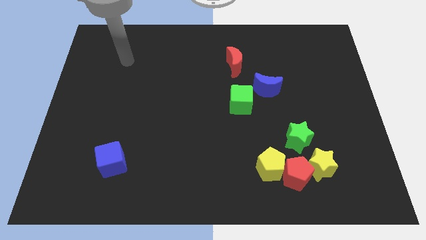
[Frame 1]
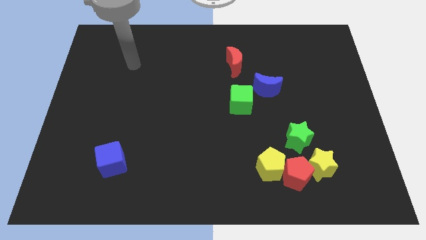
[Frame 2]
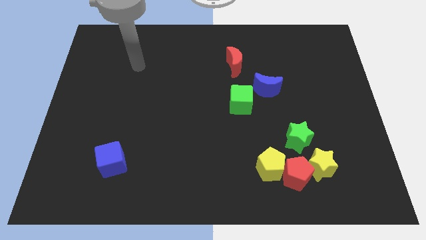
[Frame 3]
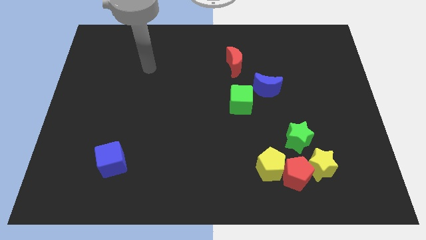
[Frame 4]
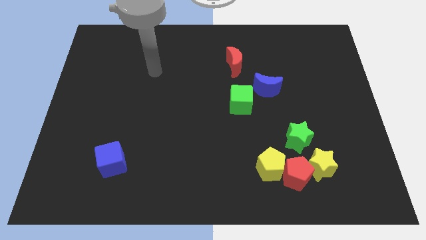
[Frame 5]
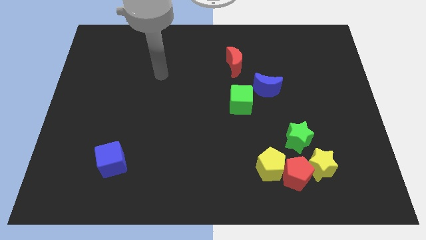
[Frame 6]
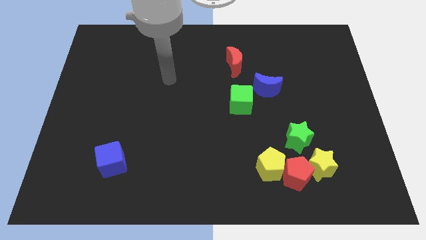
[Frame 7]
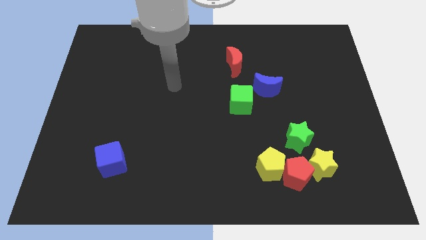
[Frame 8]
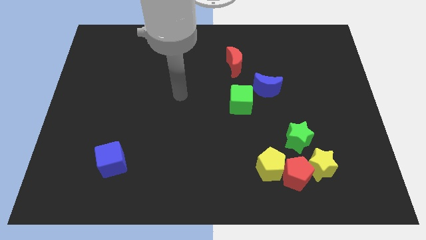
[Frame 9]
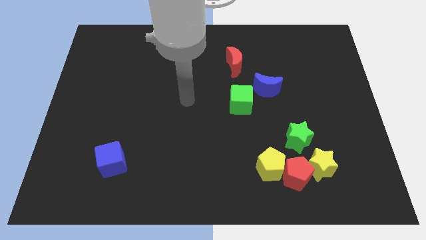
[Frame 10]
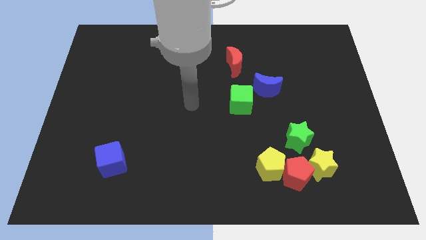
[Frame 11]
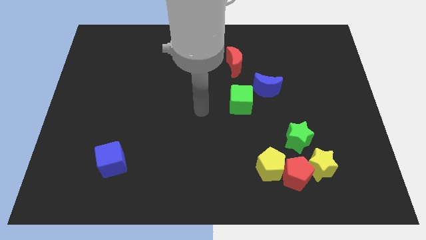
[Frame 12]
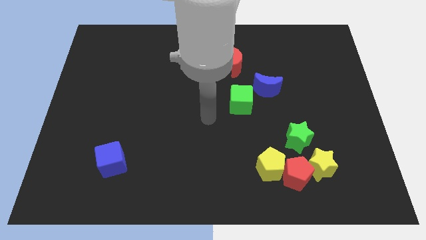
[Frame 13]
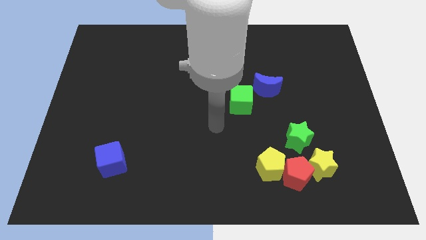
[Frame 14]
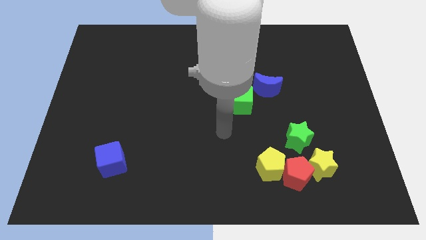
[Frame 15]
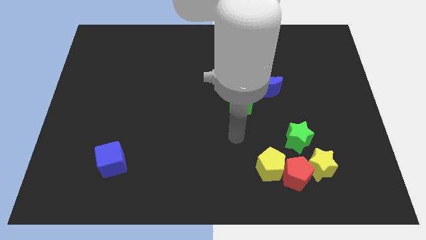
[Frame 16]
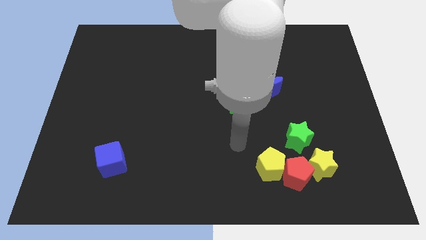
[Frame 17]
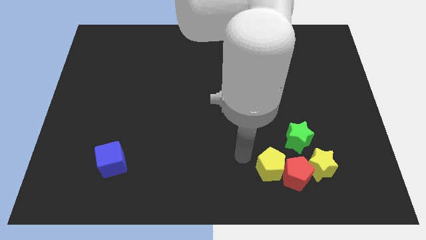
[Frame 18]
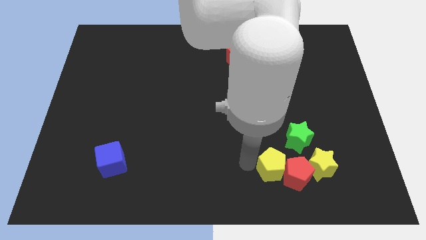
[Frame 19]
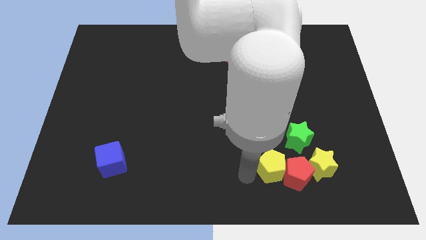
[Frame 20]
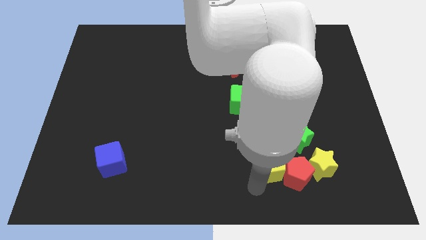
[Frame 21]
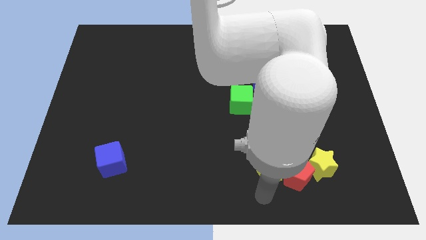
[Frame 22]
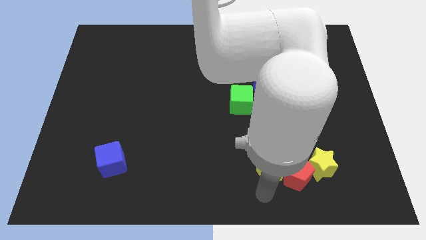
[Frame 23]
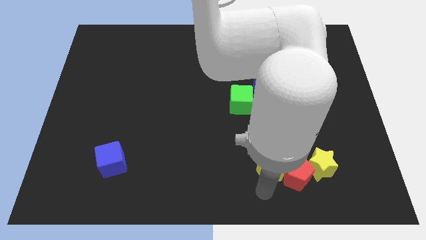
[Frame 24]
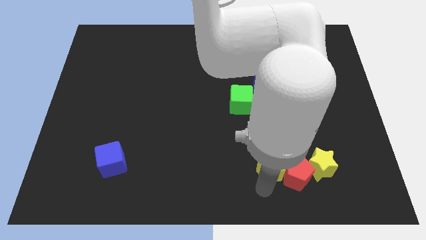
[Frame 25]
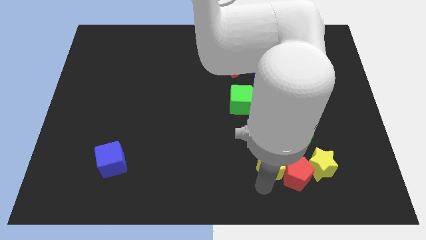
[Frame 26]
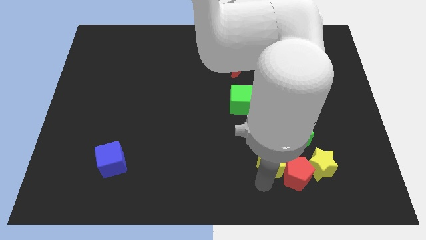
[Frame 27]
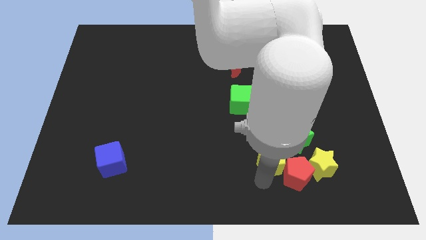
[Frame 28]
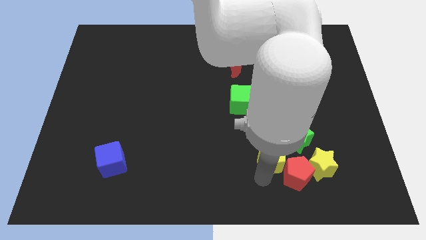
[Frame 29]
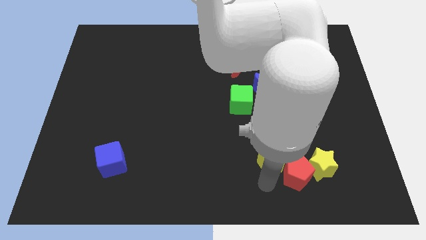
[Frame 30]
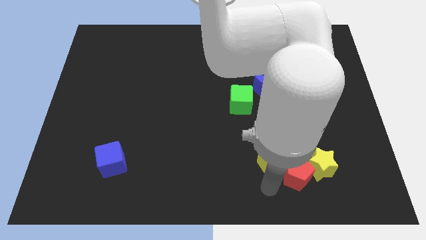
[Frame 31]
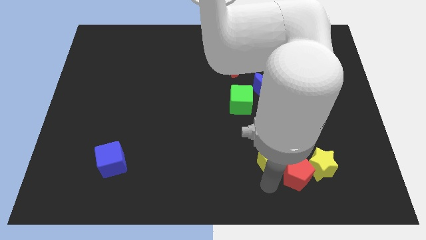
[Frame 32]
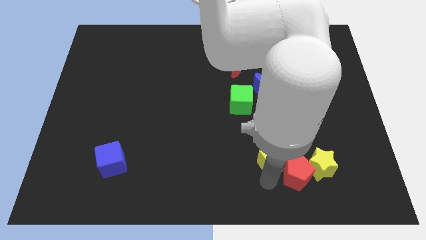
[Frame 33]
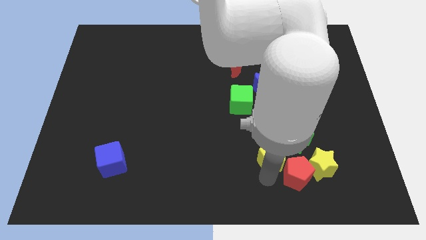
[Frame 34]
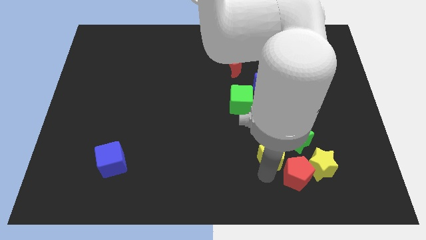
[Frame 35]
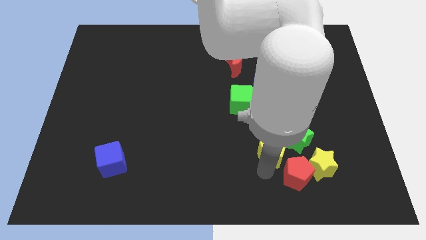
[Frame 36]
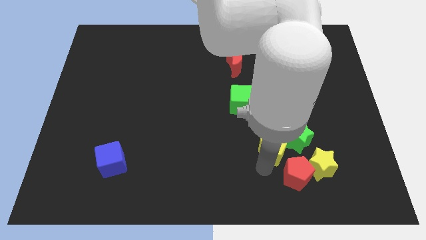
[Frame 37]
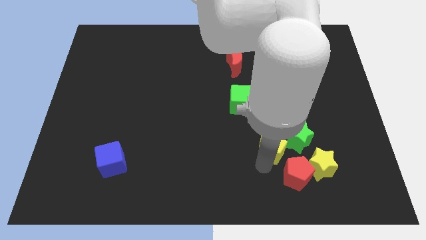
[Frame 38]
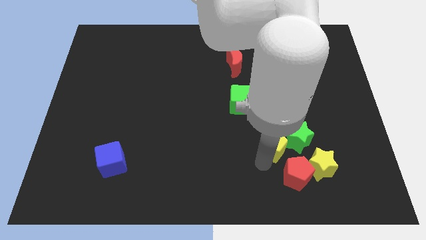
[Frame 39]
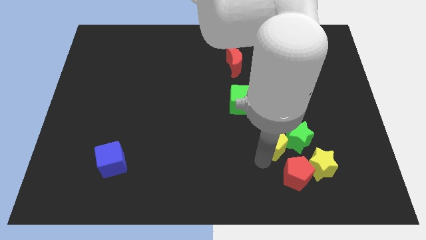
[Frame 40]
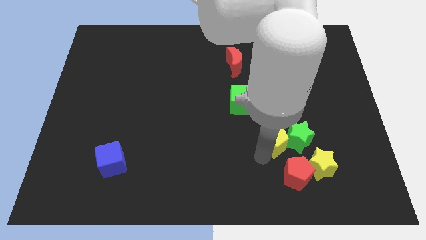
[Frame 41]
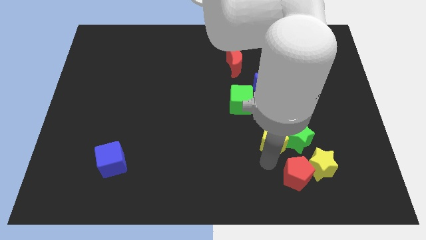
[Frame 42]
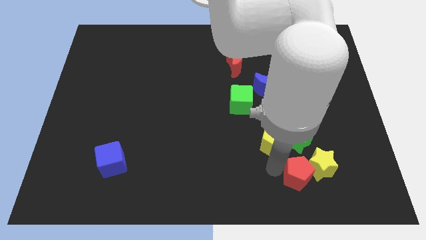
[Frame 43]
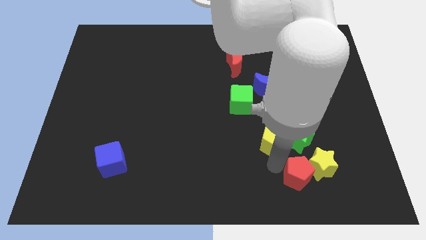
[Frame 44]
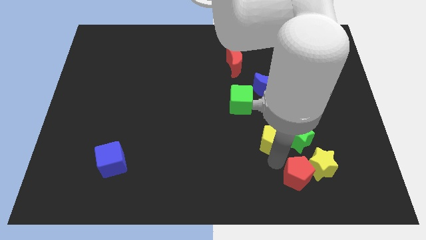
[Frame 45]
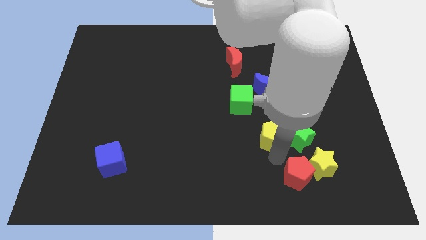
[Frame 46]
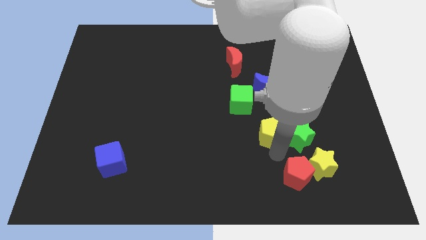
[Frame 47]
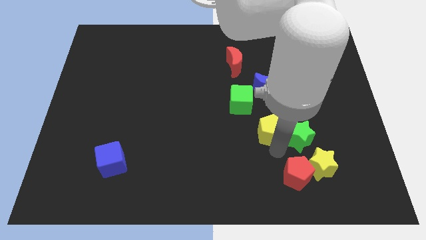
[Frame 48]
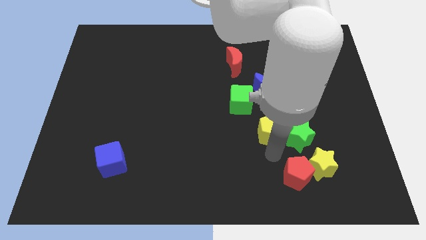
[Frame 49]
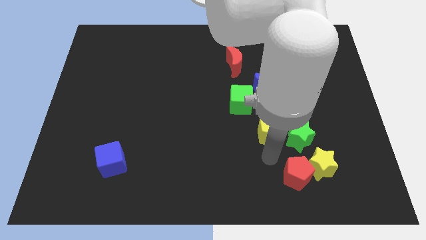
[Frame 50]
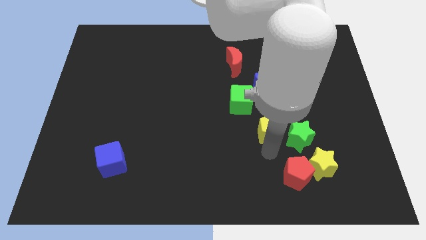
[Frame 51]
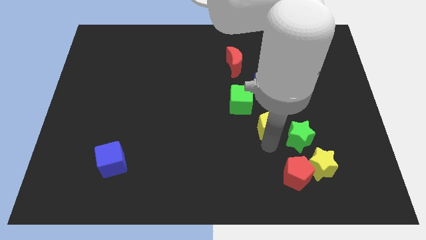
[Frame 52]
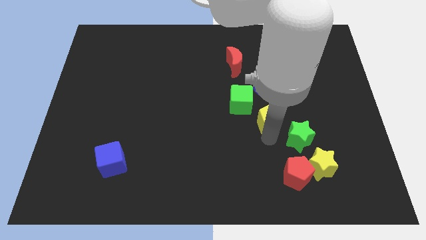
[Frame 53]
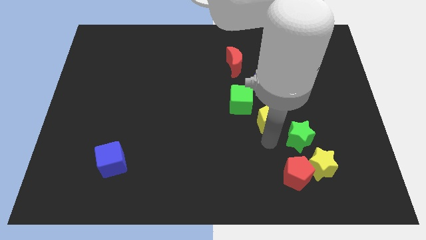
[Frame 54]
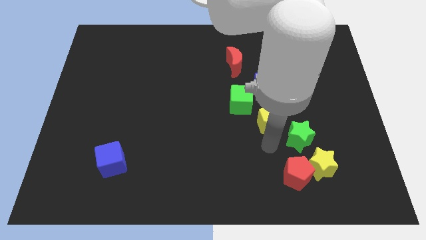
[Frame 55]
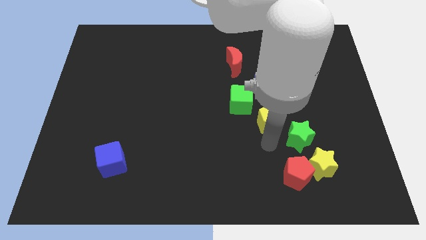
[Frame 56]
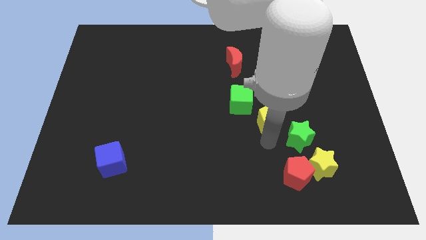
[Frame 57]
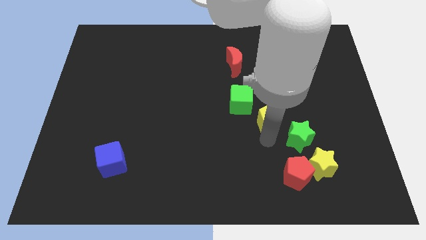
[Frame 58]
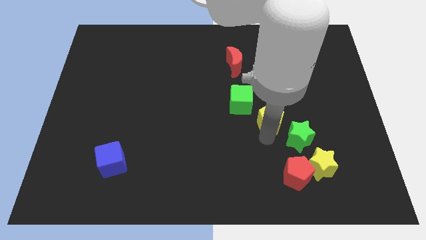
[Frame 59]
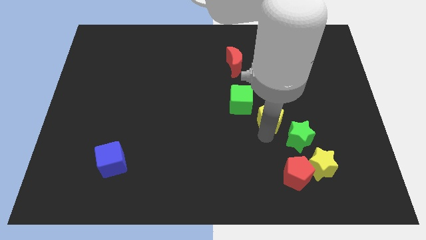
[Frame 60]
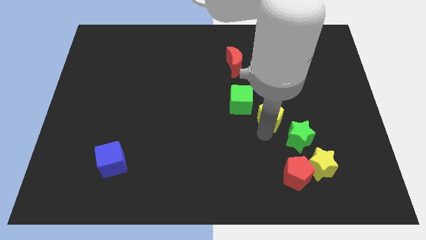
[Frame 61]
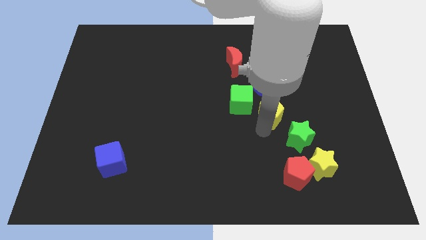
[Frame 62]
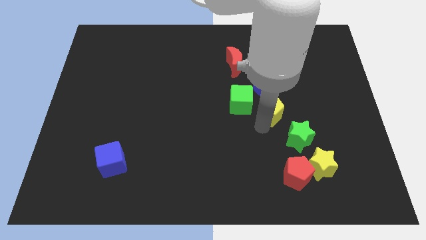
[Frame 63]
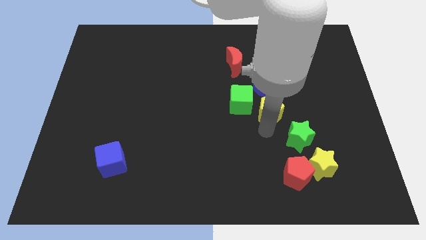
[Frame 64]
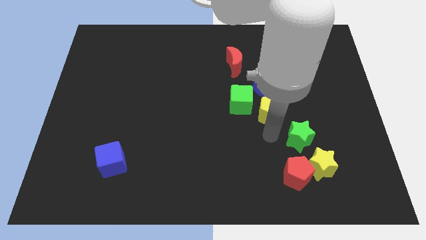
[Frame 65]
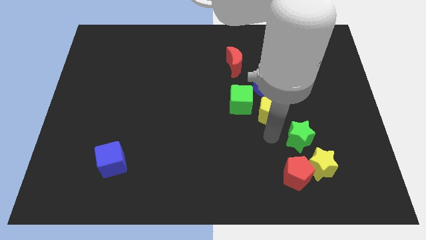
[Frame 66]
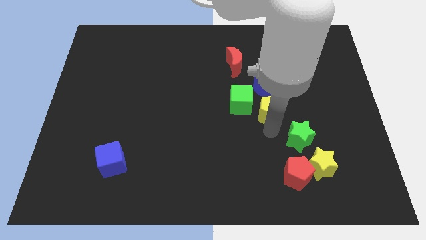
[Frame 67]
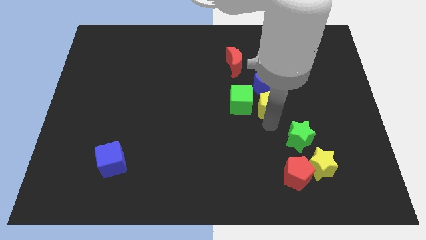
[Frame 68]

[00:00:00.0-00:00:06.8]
put the yellow pentagon next to the blue moon

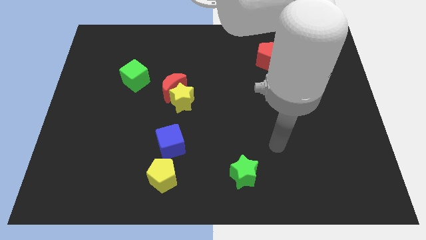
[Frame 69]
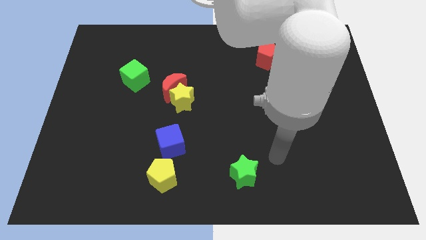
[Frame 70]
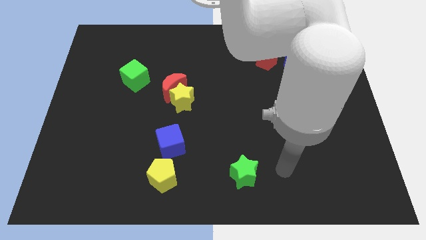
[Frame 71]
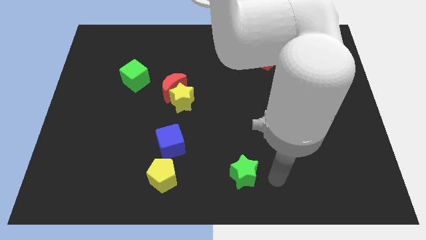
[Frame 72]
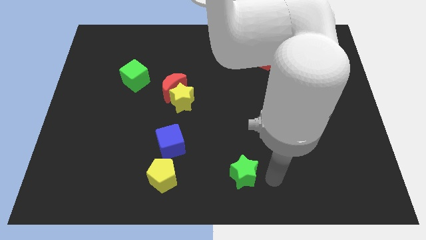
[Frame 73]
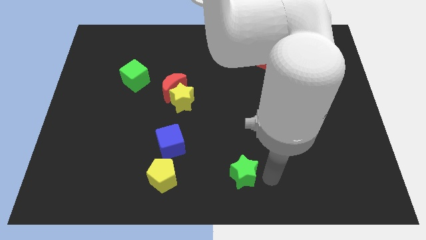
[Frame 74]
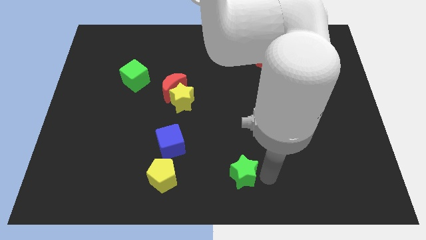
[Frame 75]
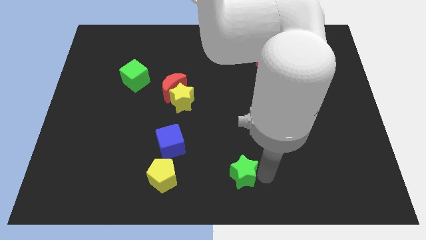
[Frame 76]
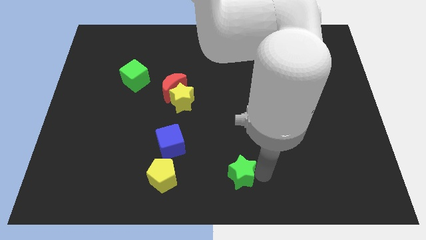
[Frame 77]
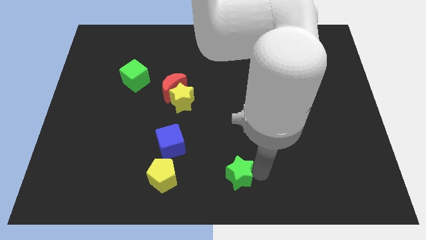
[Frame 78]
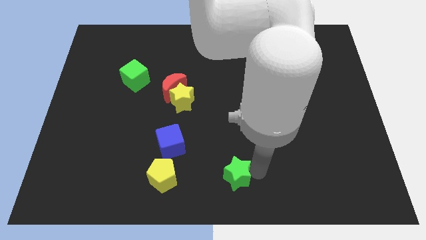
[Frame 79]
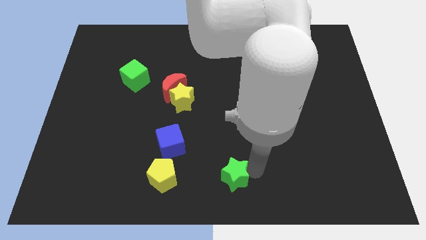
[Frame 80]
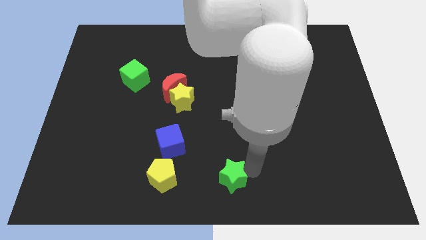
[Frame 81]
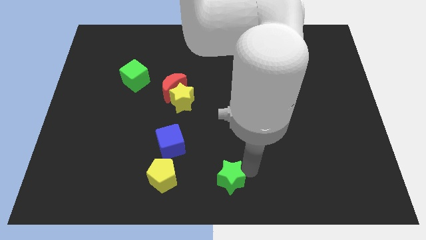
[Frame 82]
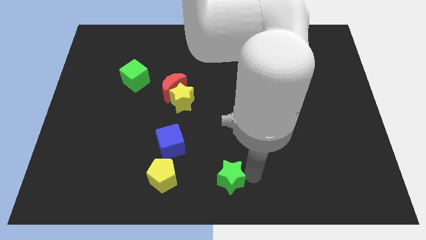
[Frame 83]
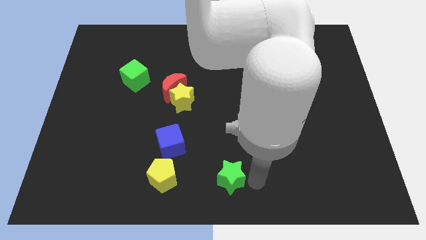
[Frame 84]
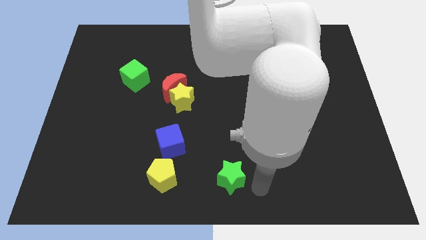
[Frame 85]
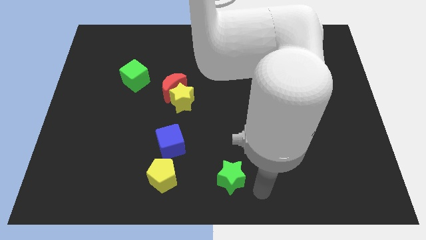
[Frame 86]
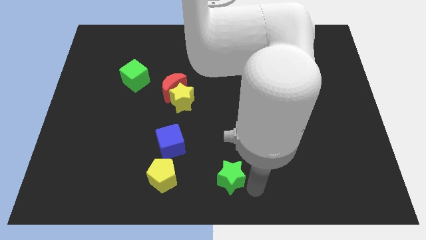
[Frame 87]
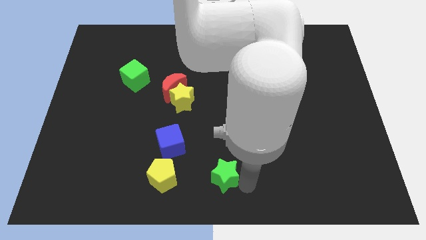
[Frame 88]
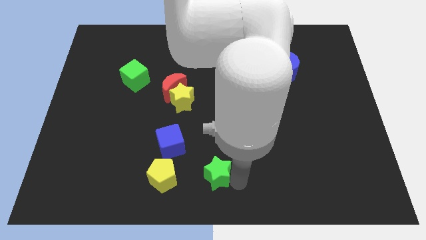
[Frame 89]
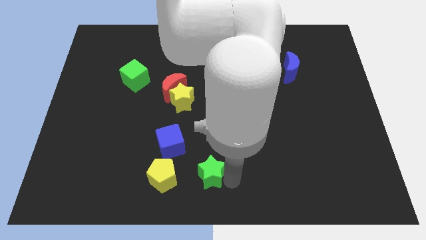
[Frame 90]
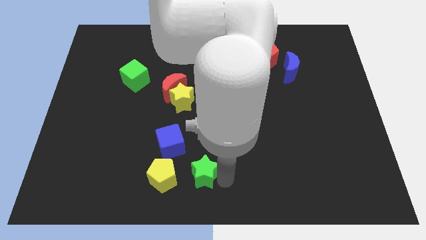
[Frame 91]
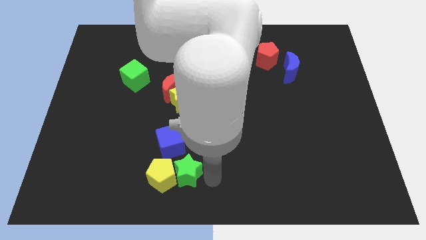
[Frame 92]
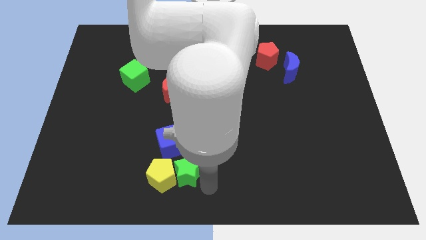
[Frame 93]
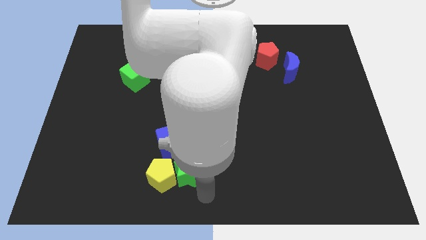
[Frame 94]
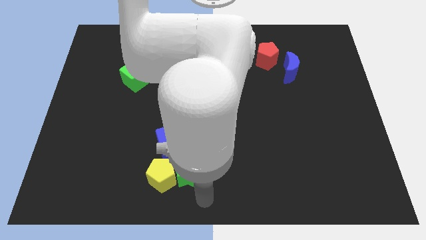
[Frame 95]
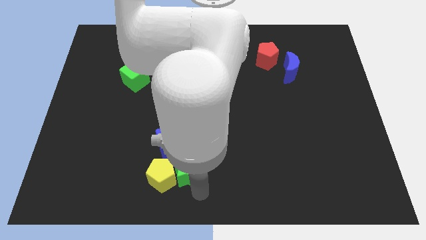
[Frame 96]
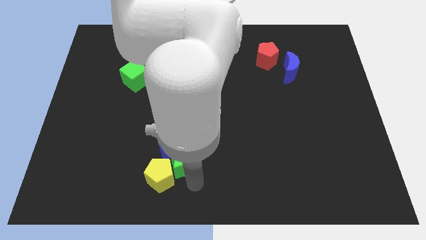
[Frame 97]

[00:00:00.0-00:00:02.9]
put the green star next to the blue cube
